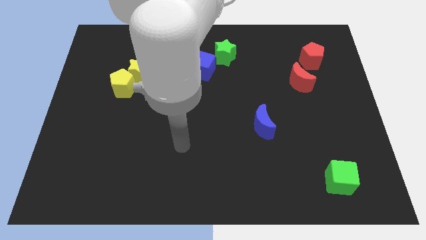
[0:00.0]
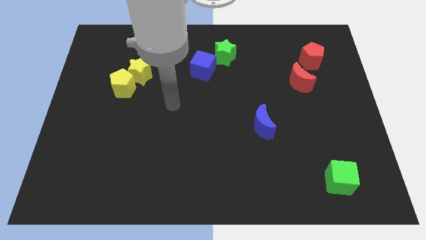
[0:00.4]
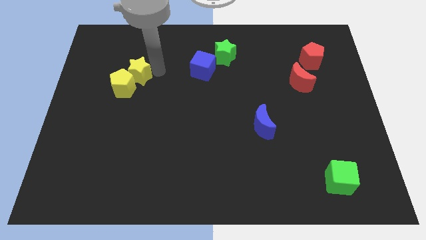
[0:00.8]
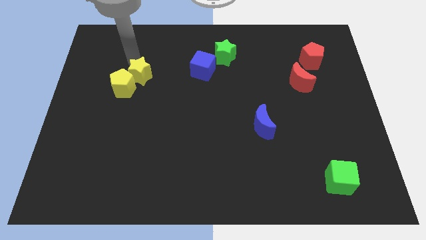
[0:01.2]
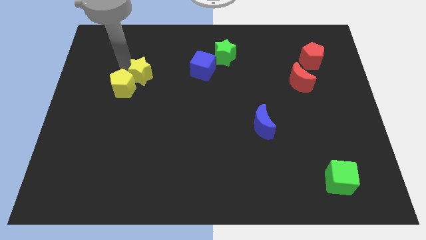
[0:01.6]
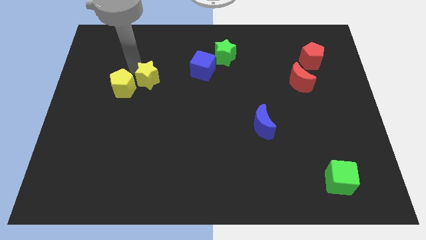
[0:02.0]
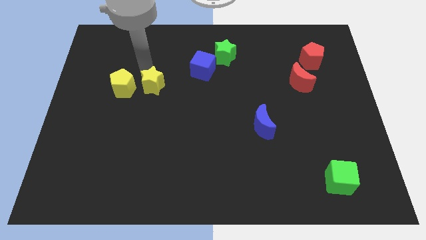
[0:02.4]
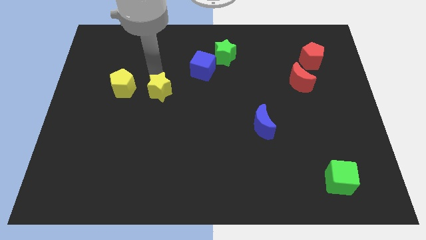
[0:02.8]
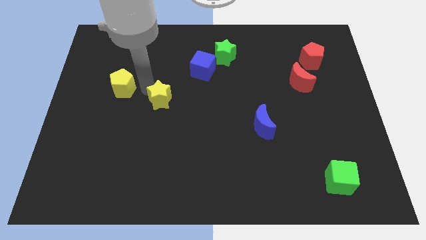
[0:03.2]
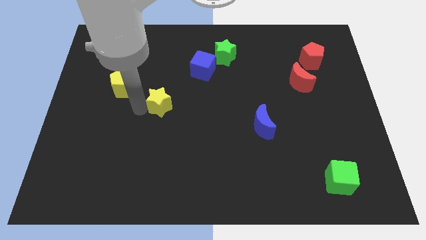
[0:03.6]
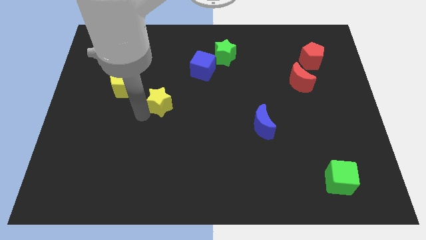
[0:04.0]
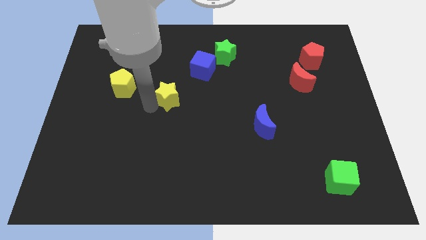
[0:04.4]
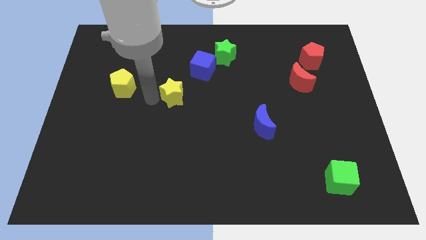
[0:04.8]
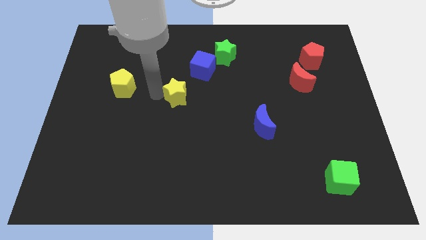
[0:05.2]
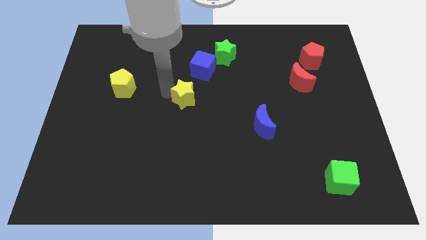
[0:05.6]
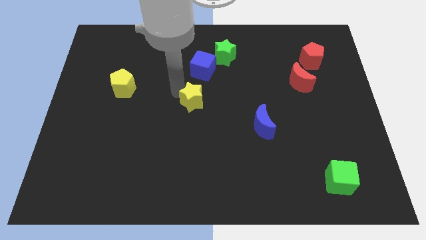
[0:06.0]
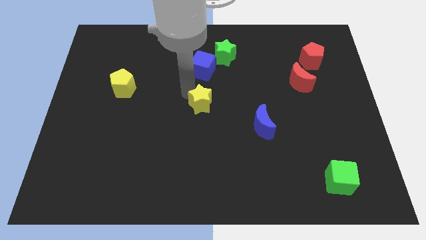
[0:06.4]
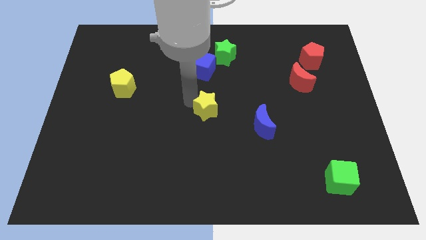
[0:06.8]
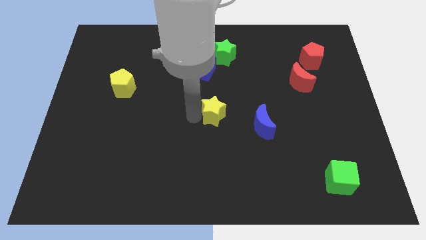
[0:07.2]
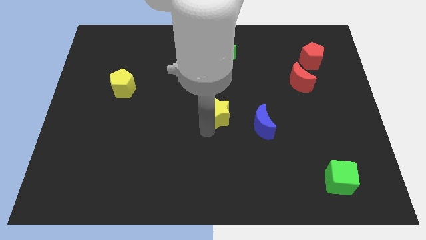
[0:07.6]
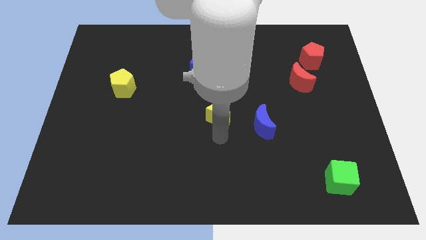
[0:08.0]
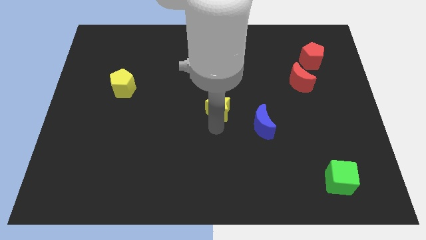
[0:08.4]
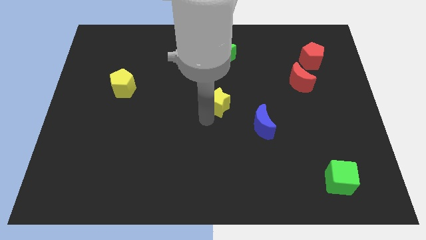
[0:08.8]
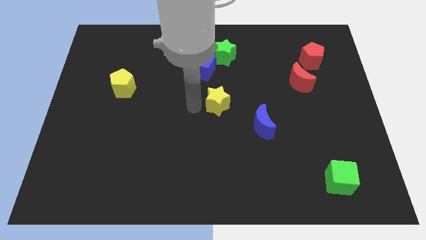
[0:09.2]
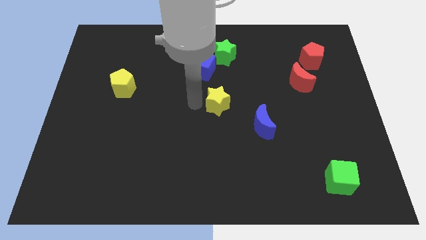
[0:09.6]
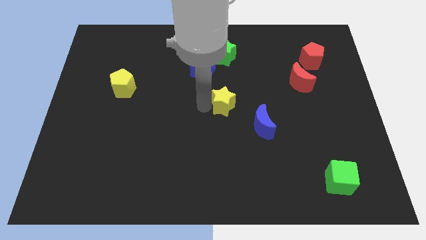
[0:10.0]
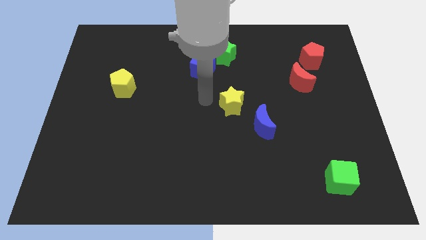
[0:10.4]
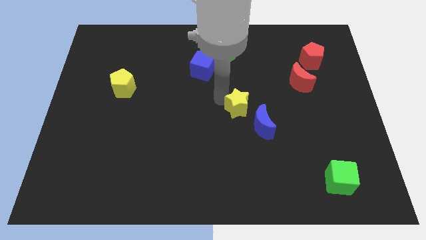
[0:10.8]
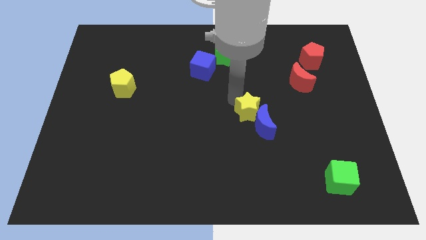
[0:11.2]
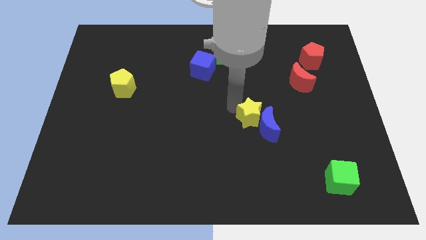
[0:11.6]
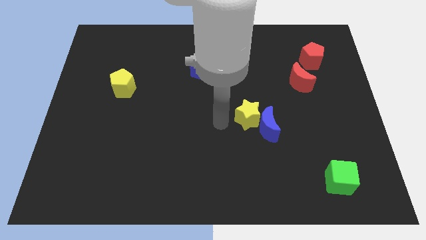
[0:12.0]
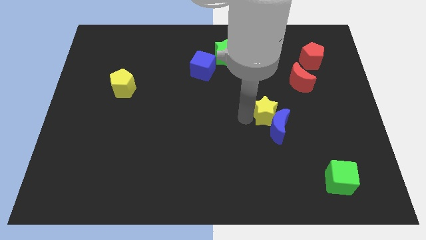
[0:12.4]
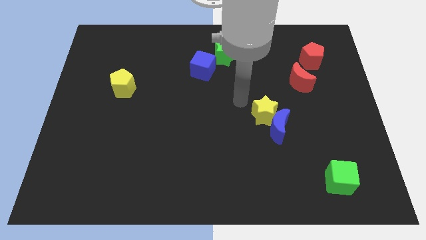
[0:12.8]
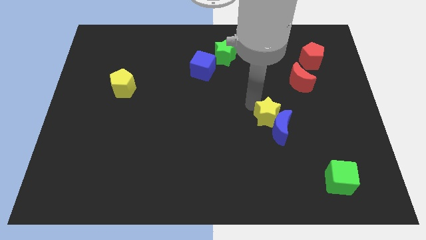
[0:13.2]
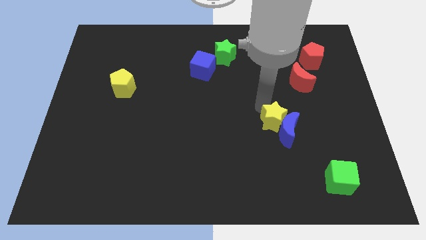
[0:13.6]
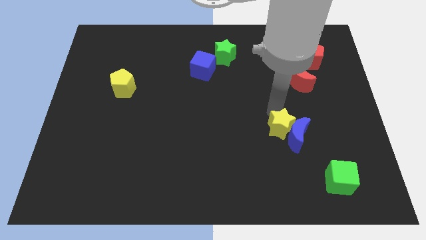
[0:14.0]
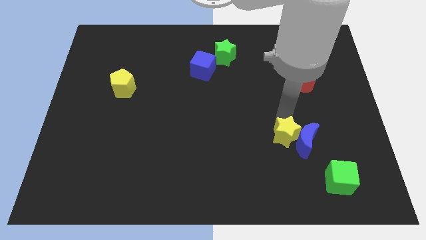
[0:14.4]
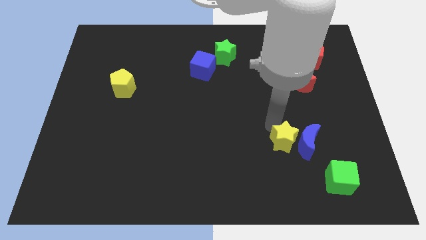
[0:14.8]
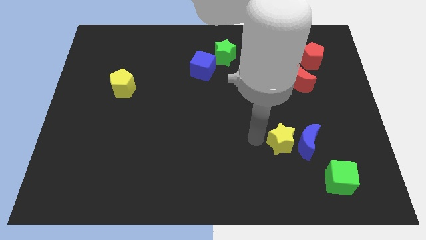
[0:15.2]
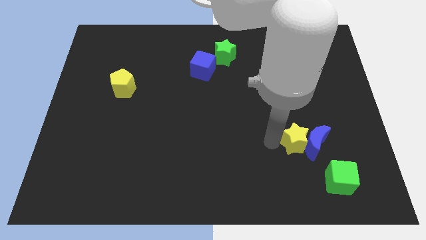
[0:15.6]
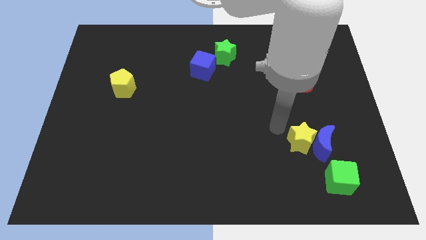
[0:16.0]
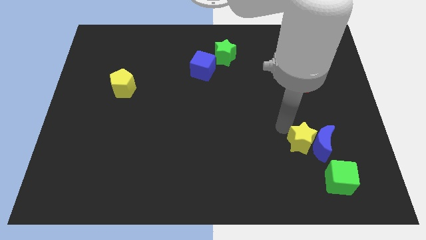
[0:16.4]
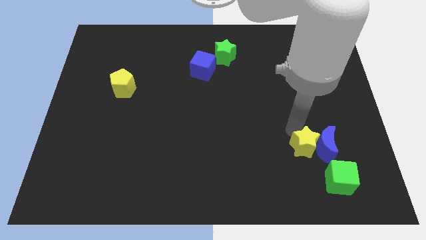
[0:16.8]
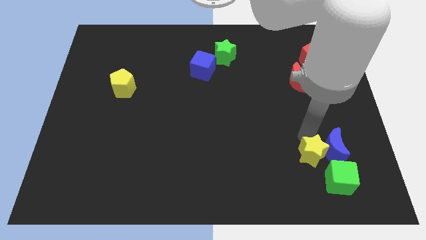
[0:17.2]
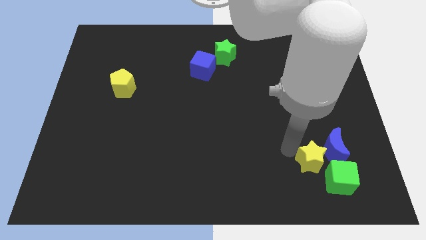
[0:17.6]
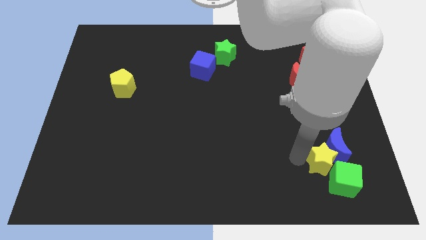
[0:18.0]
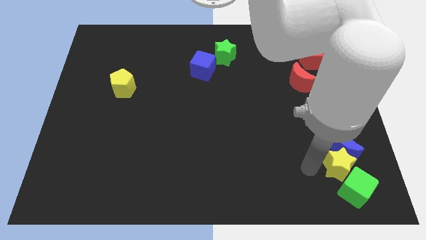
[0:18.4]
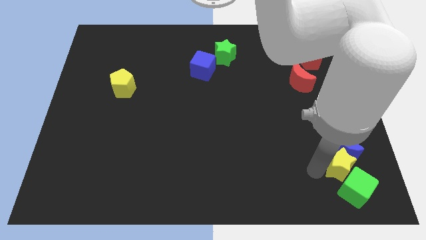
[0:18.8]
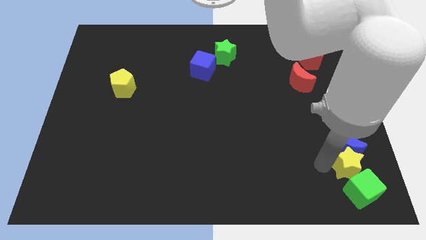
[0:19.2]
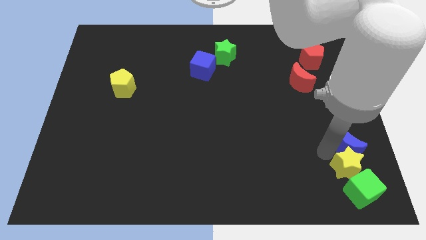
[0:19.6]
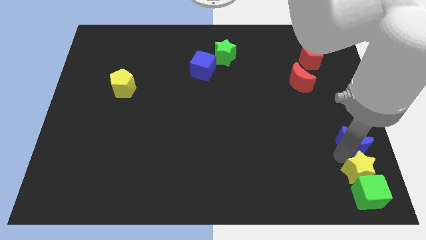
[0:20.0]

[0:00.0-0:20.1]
move the yellow star to the bottom right of the board

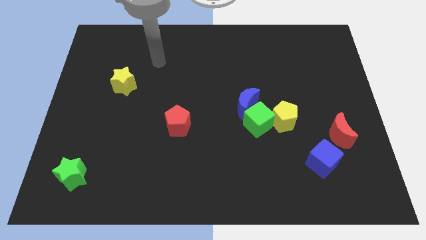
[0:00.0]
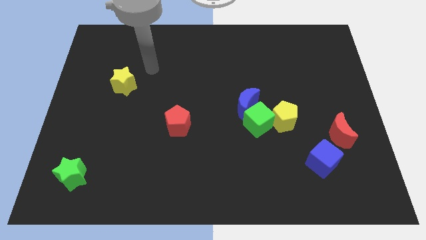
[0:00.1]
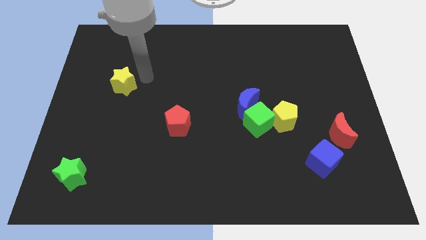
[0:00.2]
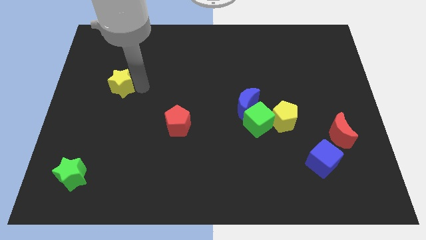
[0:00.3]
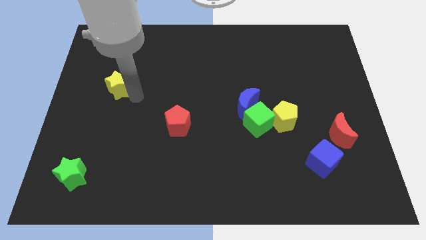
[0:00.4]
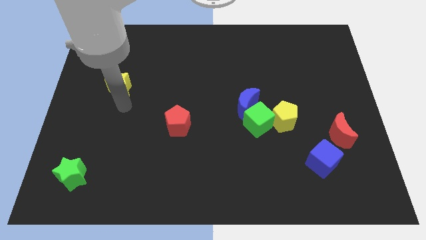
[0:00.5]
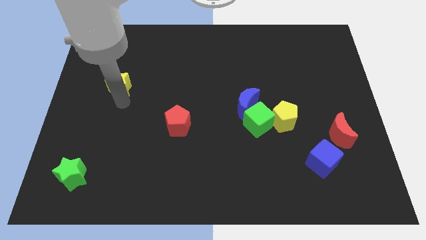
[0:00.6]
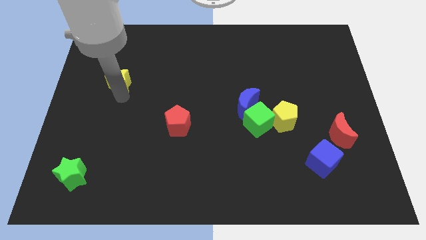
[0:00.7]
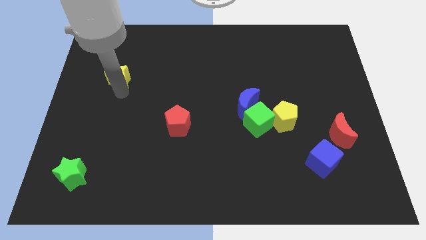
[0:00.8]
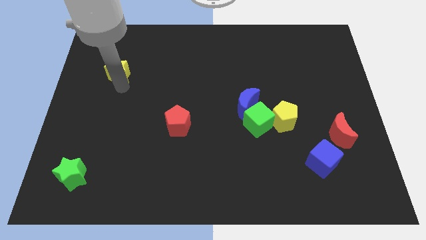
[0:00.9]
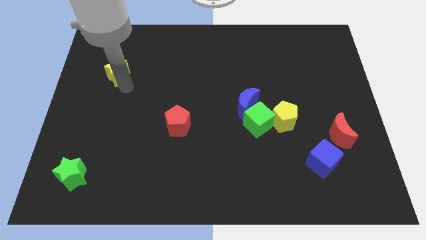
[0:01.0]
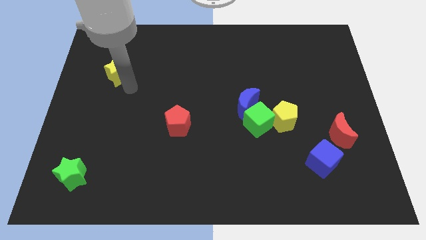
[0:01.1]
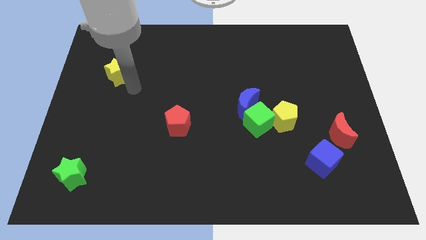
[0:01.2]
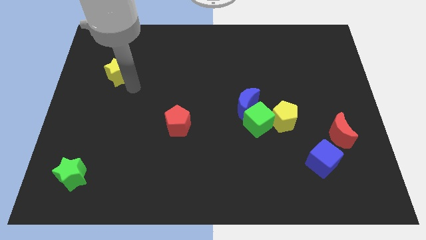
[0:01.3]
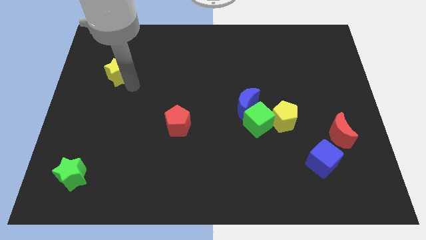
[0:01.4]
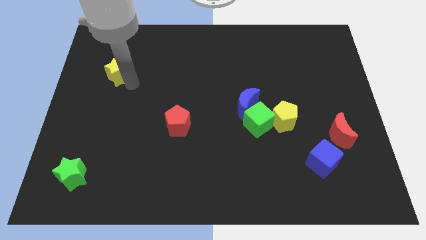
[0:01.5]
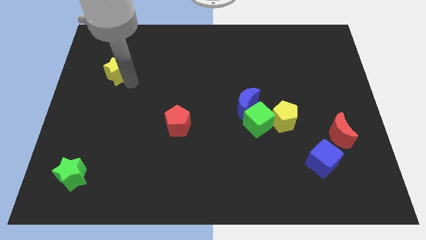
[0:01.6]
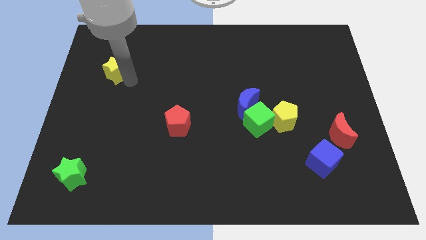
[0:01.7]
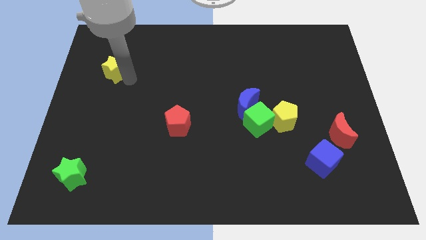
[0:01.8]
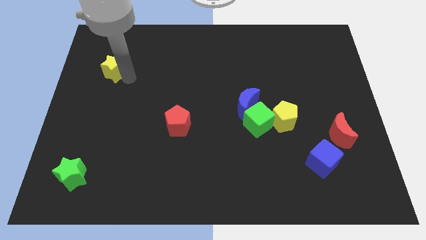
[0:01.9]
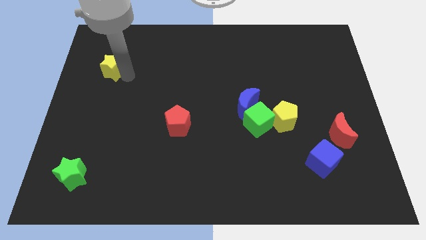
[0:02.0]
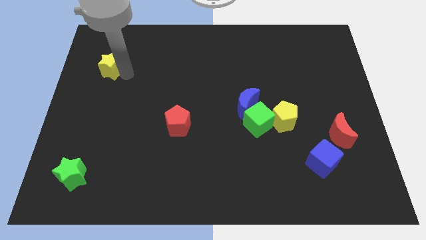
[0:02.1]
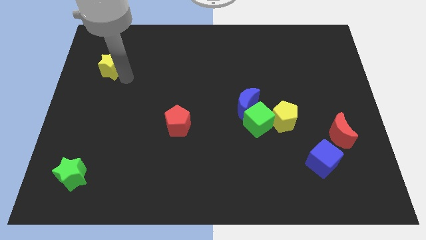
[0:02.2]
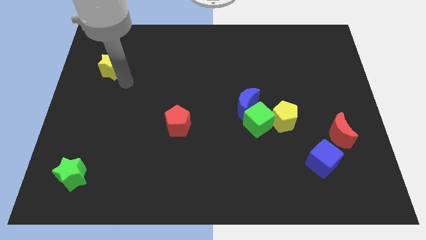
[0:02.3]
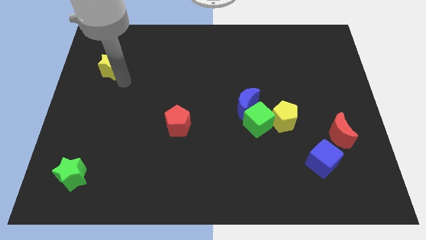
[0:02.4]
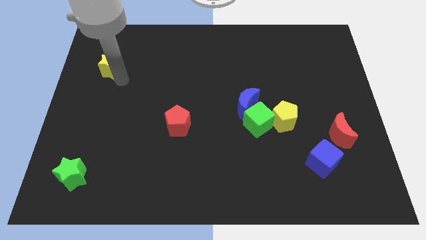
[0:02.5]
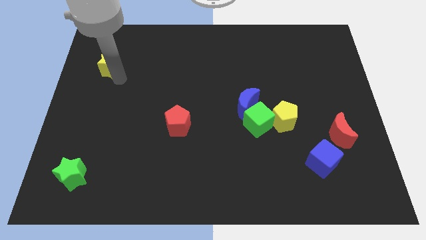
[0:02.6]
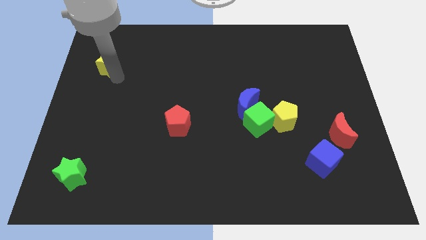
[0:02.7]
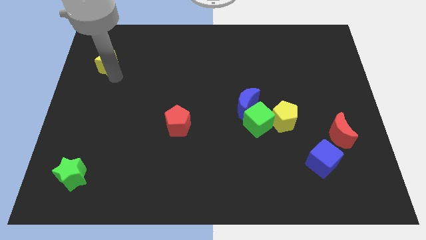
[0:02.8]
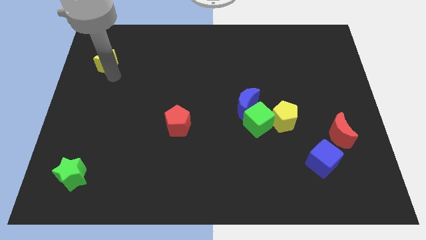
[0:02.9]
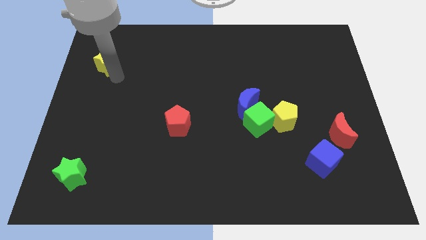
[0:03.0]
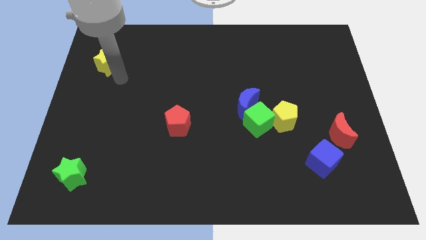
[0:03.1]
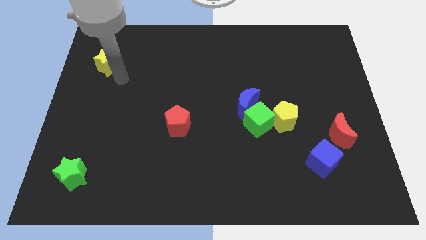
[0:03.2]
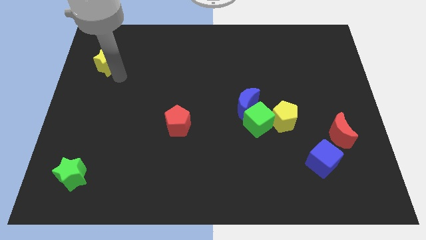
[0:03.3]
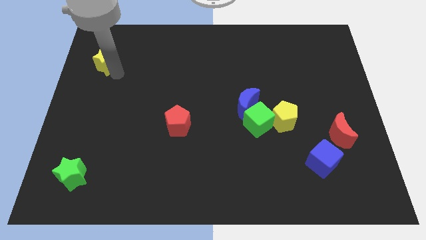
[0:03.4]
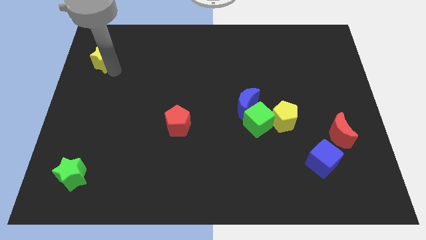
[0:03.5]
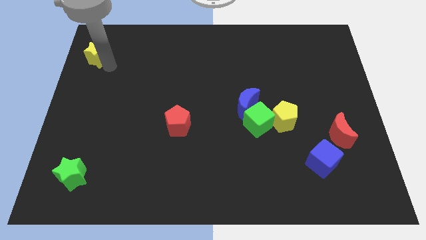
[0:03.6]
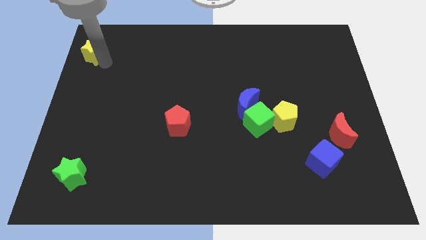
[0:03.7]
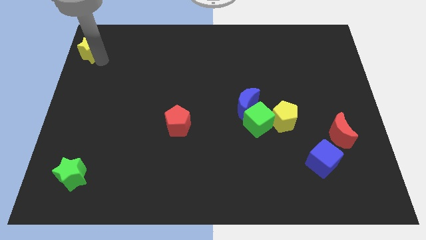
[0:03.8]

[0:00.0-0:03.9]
put the yellow star to the upper left corner
